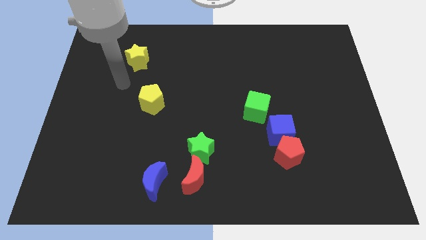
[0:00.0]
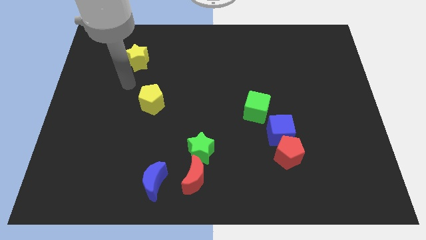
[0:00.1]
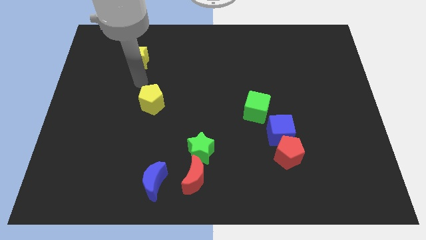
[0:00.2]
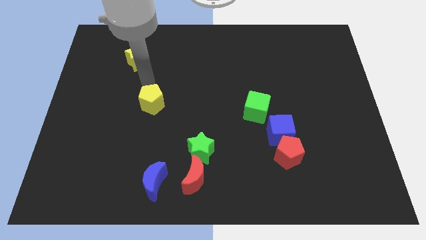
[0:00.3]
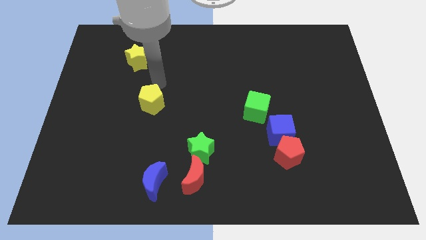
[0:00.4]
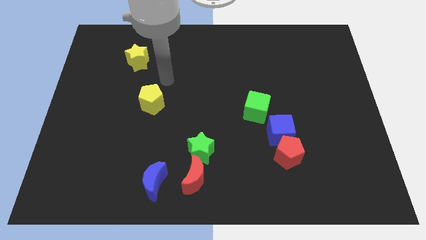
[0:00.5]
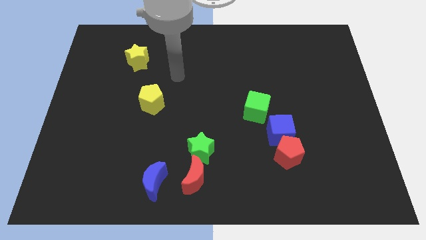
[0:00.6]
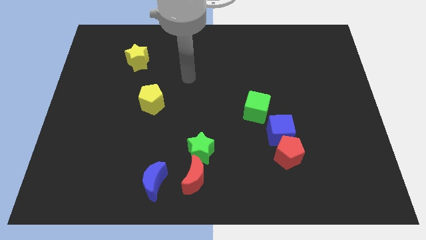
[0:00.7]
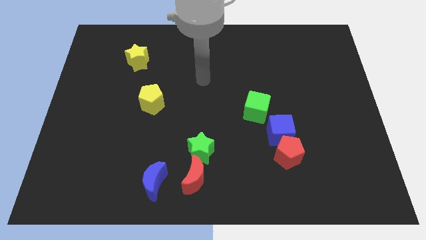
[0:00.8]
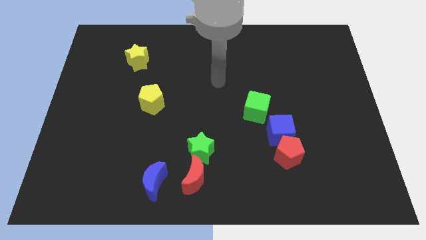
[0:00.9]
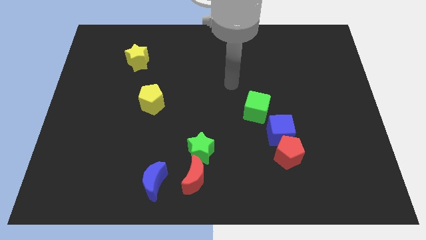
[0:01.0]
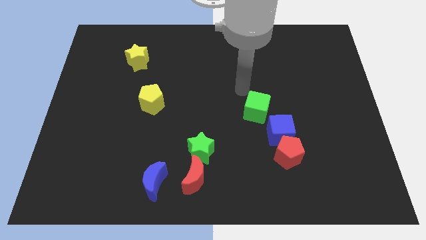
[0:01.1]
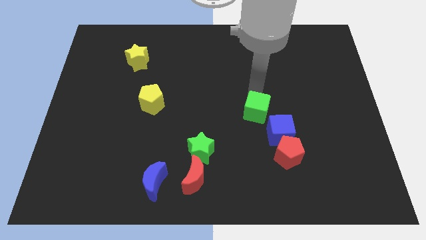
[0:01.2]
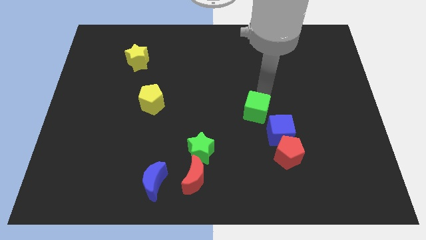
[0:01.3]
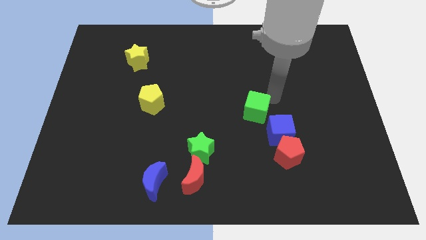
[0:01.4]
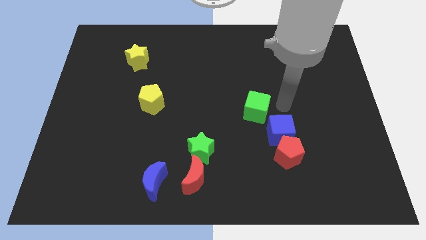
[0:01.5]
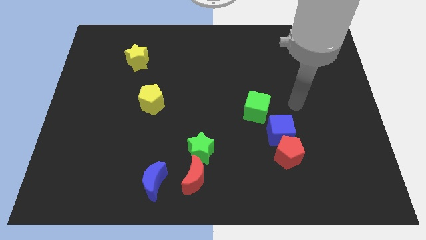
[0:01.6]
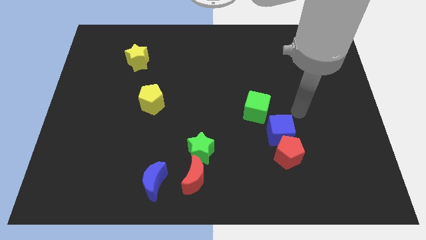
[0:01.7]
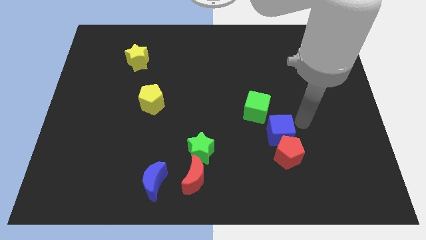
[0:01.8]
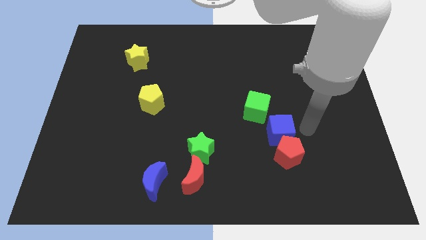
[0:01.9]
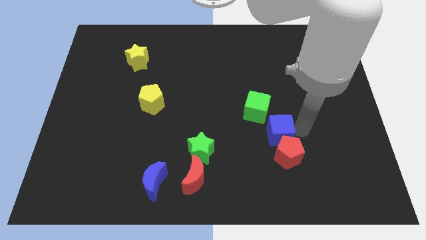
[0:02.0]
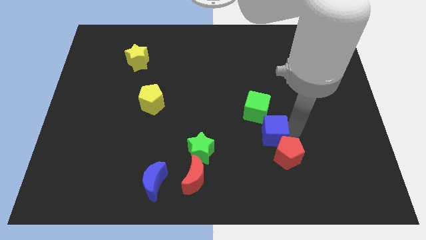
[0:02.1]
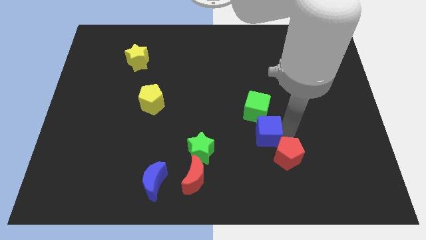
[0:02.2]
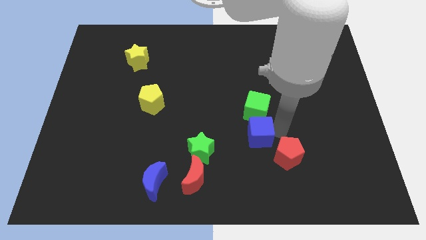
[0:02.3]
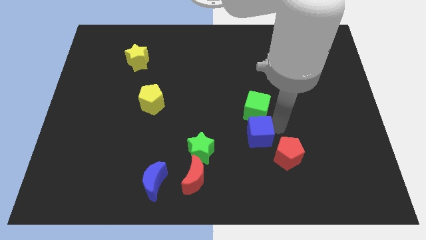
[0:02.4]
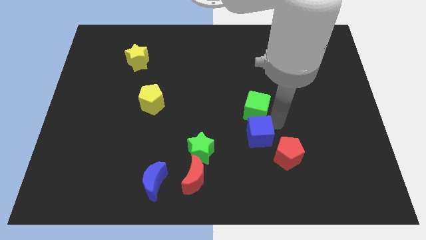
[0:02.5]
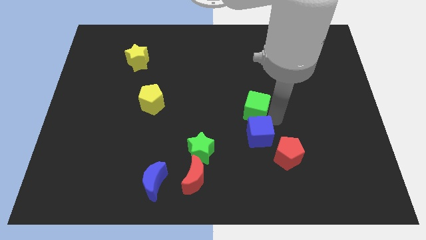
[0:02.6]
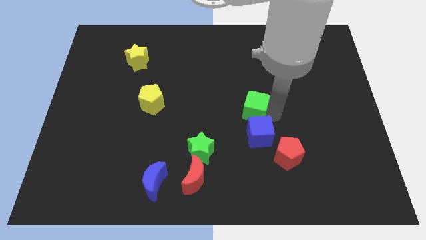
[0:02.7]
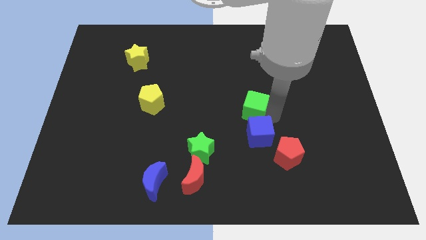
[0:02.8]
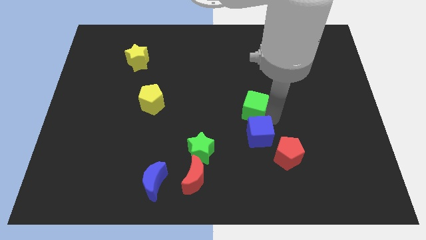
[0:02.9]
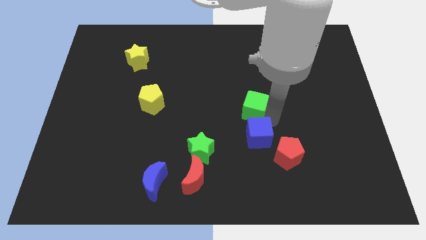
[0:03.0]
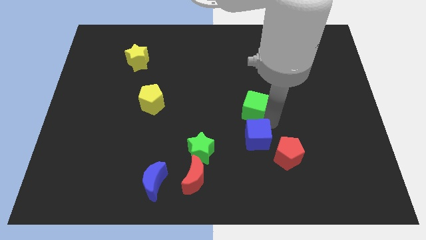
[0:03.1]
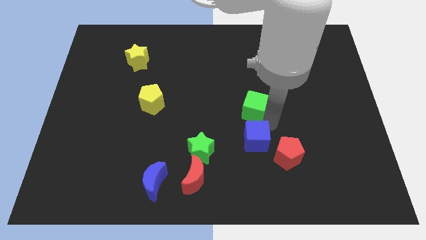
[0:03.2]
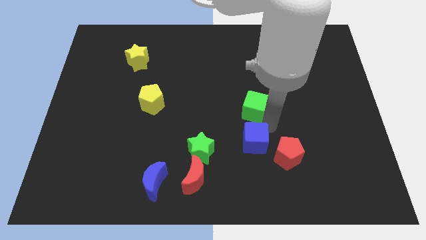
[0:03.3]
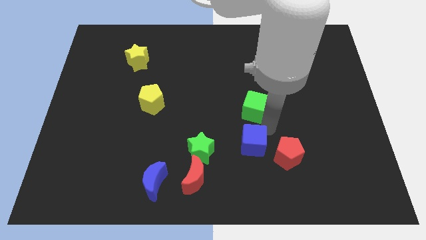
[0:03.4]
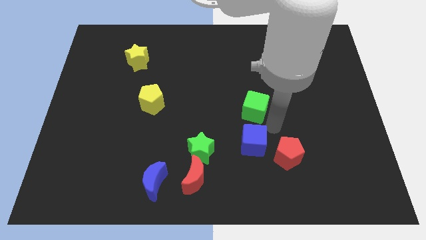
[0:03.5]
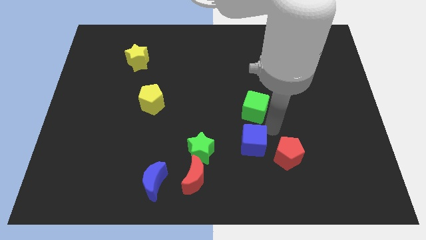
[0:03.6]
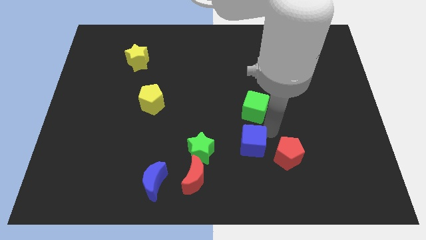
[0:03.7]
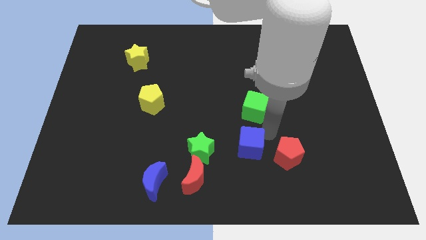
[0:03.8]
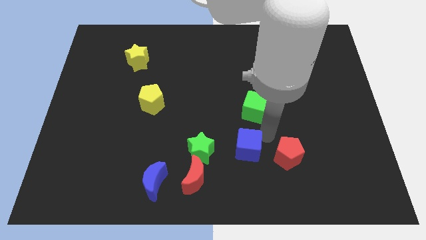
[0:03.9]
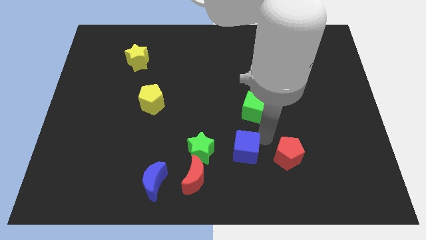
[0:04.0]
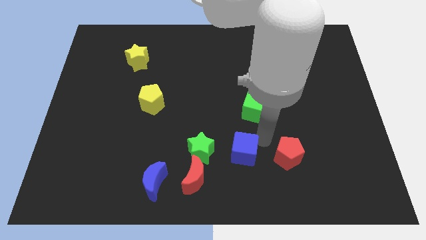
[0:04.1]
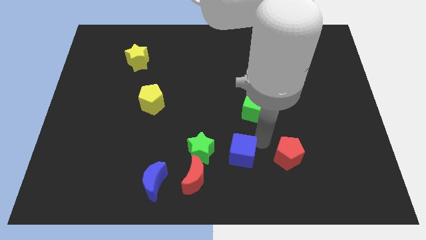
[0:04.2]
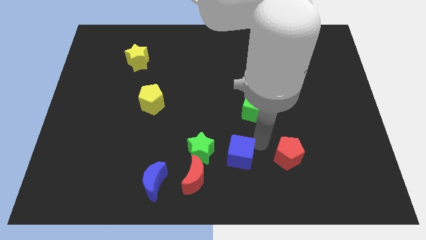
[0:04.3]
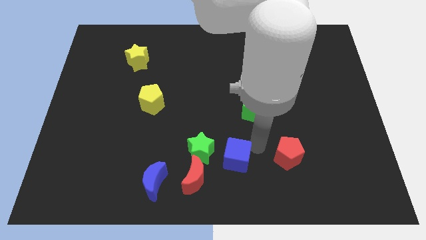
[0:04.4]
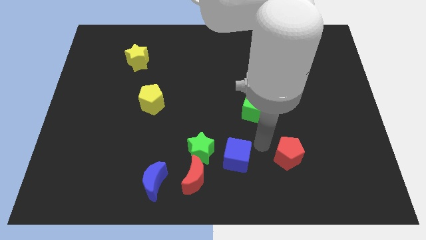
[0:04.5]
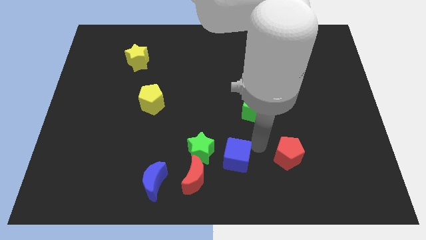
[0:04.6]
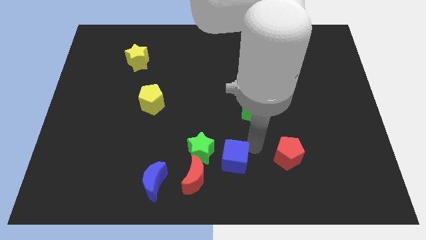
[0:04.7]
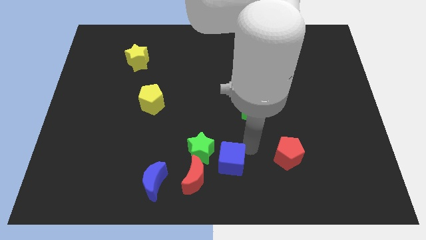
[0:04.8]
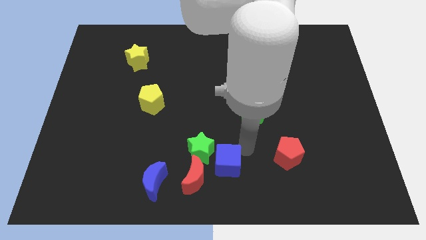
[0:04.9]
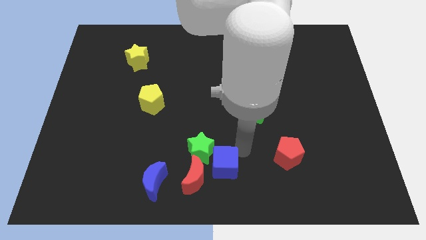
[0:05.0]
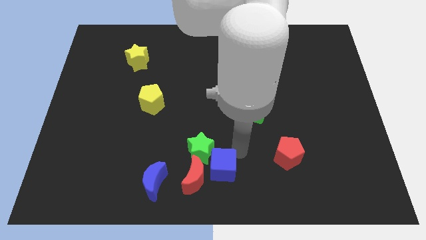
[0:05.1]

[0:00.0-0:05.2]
push the blue cube close to the red moon

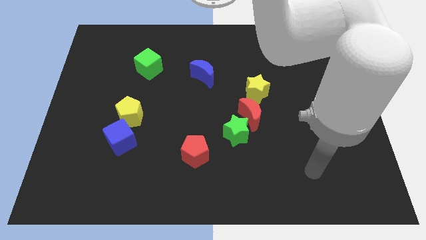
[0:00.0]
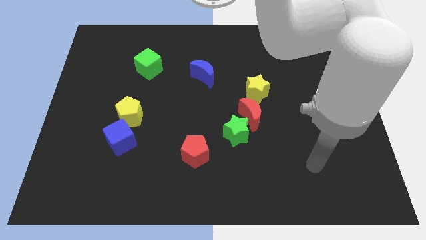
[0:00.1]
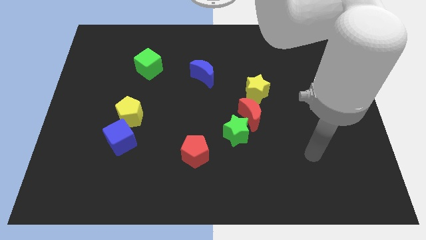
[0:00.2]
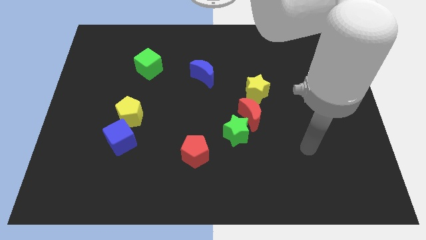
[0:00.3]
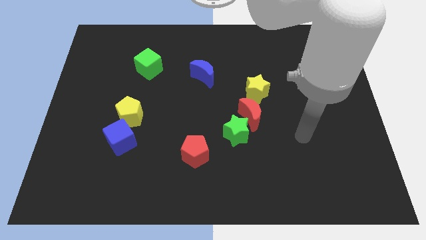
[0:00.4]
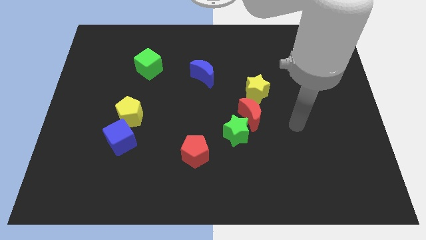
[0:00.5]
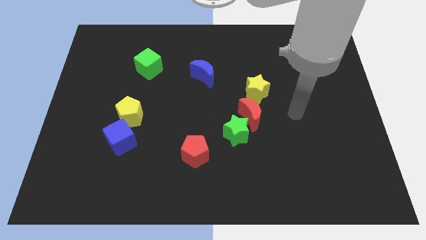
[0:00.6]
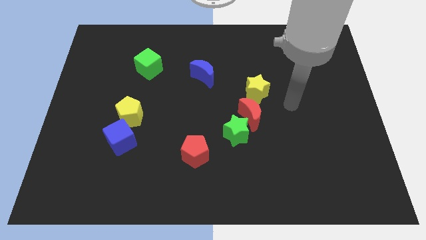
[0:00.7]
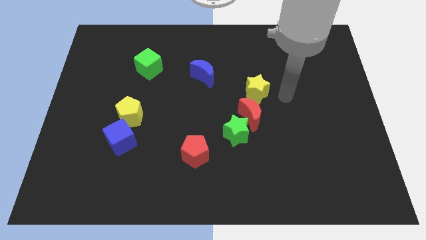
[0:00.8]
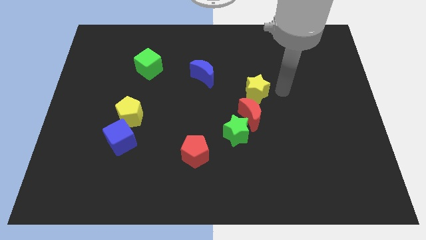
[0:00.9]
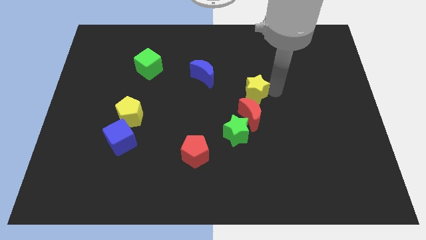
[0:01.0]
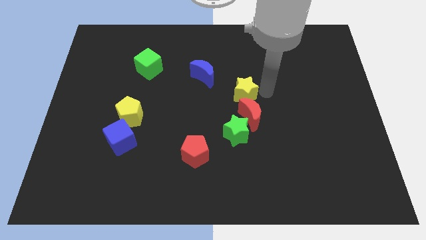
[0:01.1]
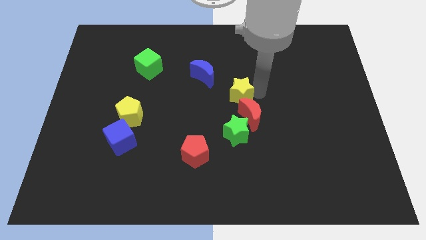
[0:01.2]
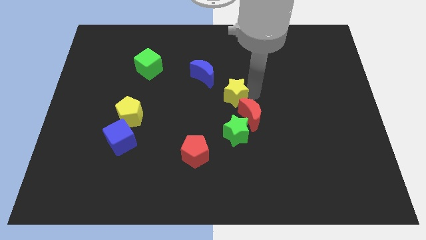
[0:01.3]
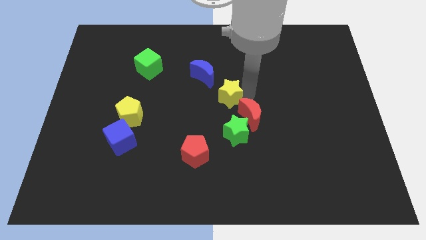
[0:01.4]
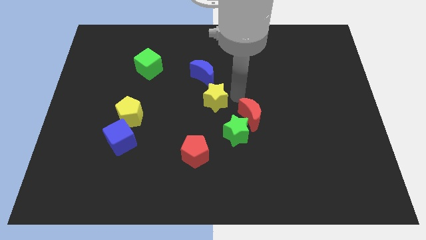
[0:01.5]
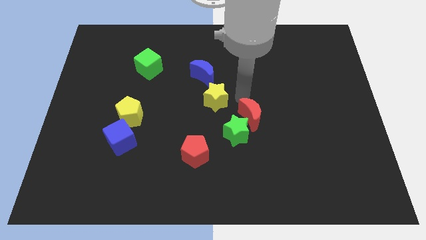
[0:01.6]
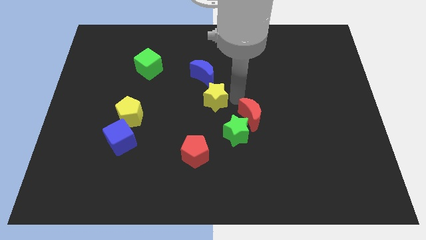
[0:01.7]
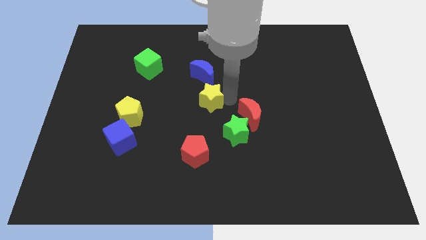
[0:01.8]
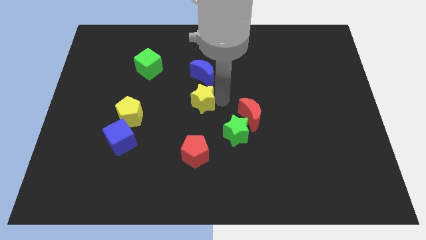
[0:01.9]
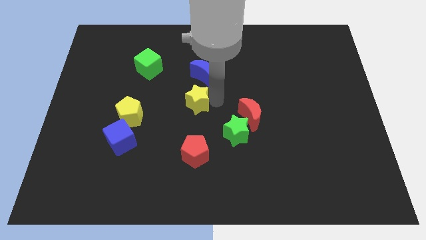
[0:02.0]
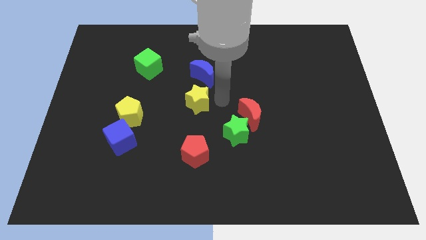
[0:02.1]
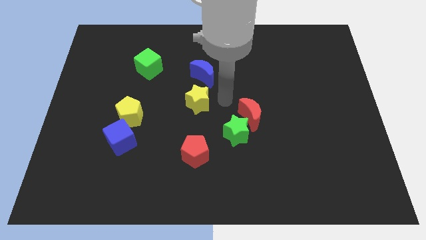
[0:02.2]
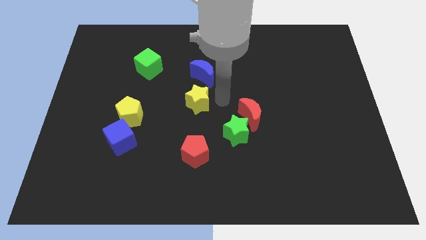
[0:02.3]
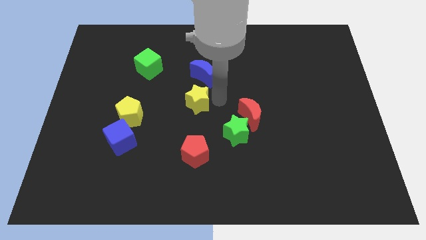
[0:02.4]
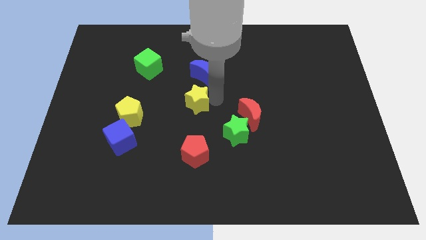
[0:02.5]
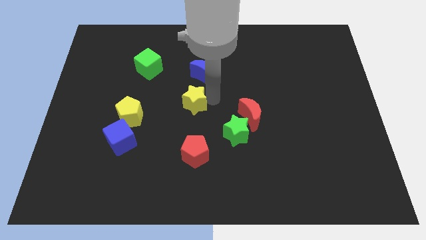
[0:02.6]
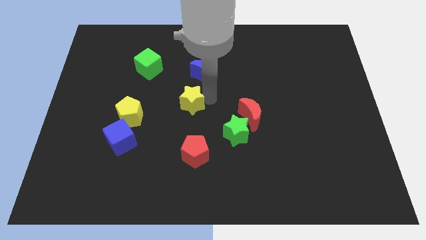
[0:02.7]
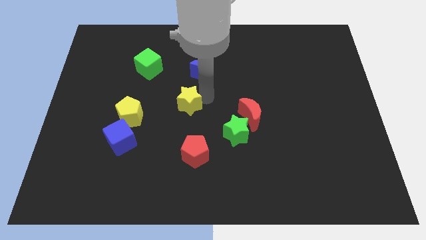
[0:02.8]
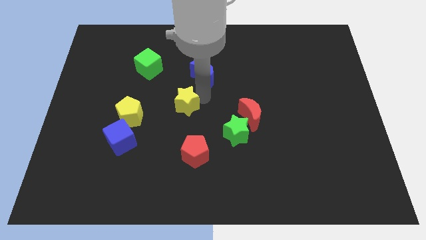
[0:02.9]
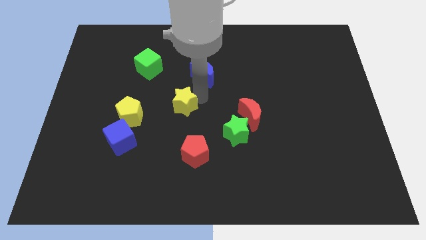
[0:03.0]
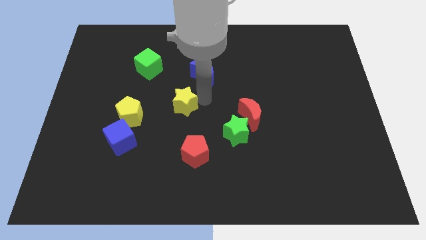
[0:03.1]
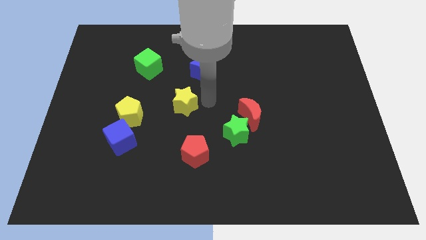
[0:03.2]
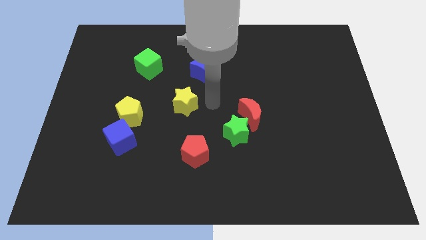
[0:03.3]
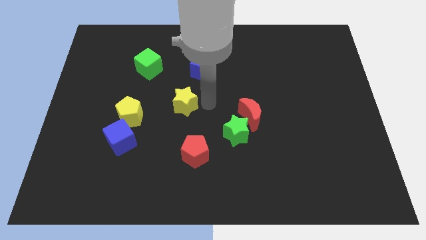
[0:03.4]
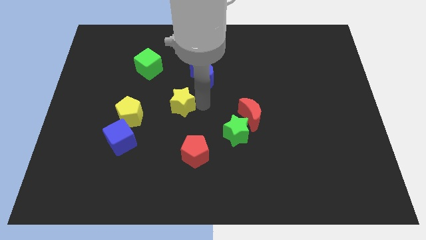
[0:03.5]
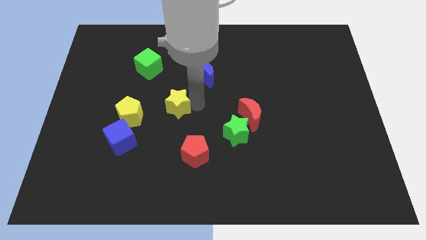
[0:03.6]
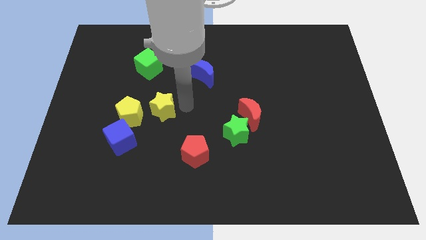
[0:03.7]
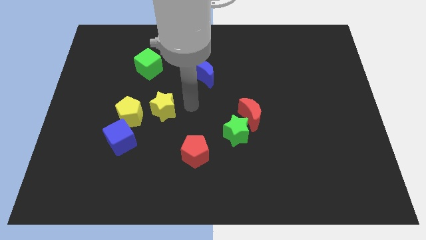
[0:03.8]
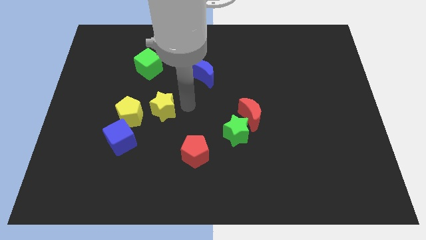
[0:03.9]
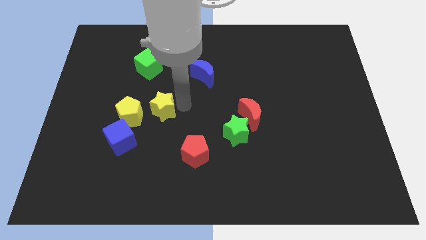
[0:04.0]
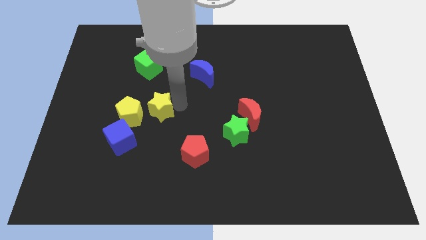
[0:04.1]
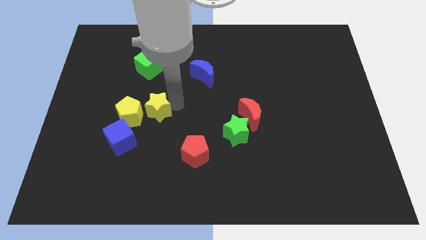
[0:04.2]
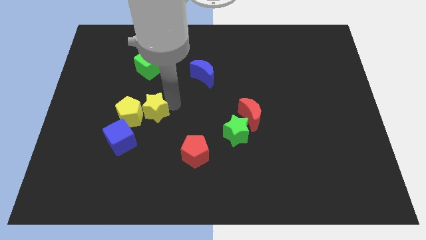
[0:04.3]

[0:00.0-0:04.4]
slide the yellow star next to the yellow pentagon
